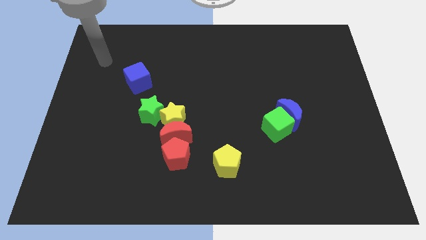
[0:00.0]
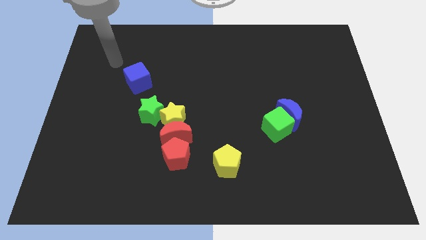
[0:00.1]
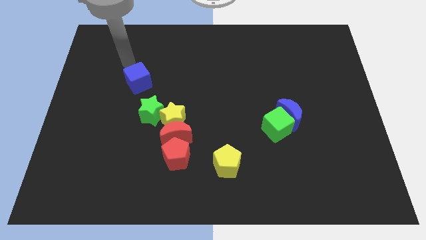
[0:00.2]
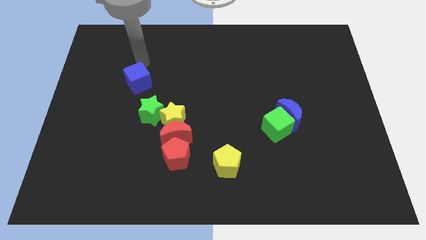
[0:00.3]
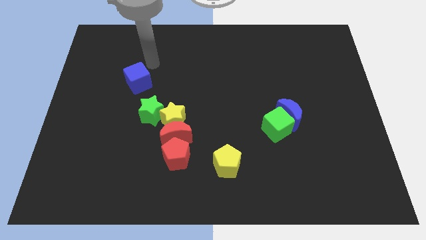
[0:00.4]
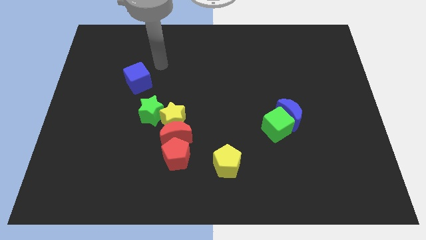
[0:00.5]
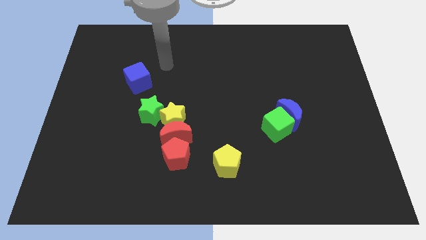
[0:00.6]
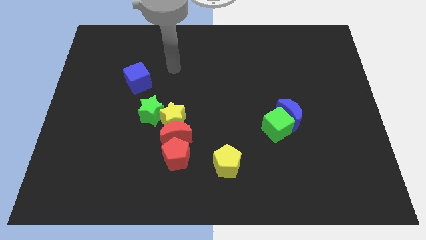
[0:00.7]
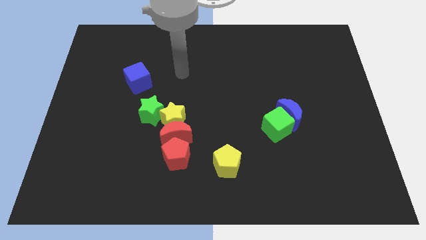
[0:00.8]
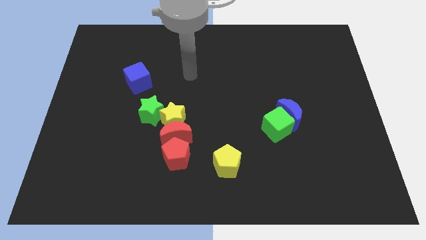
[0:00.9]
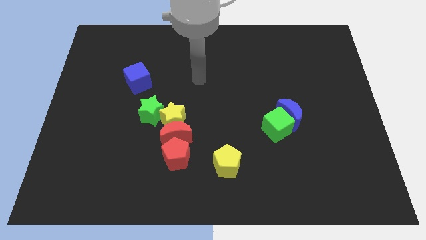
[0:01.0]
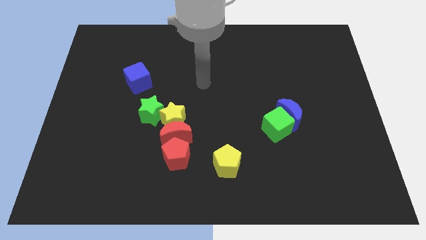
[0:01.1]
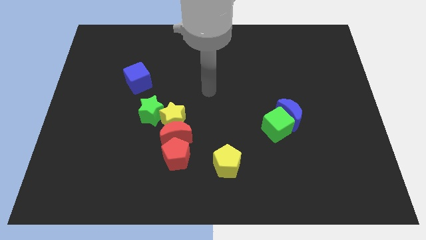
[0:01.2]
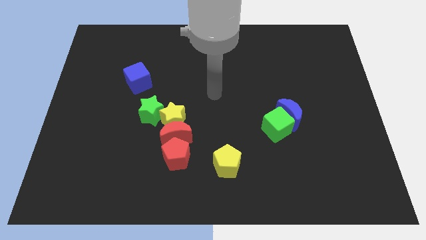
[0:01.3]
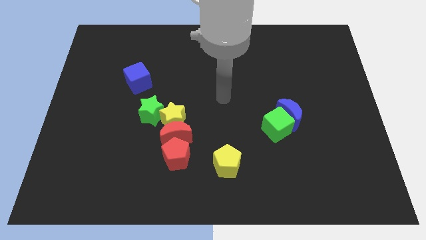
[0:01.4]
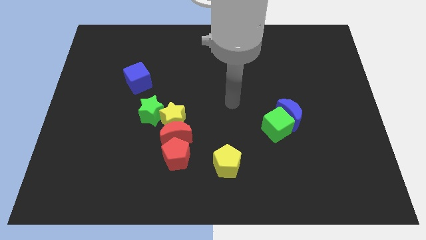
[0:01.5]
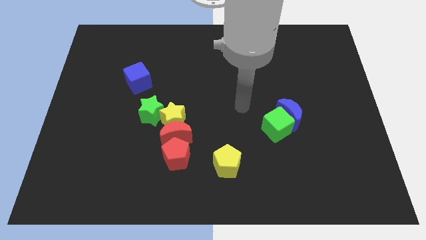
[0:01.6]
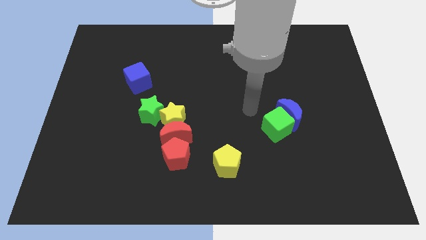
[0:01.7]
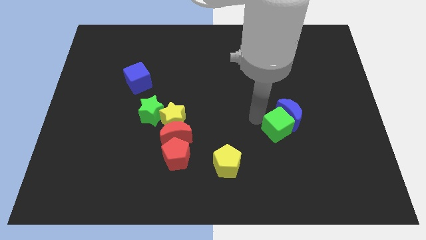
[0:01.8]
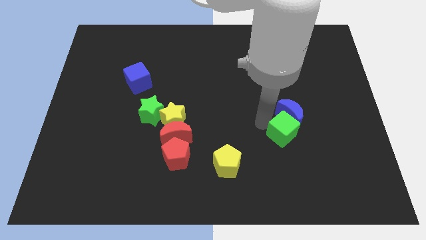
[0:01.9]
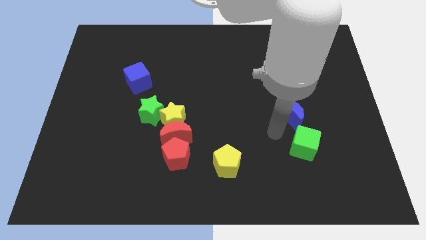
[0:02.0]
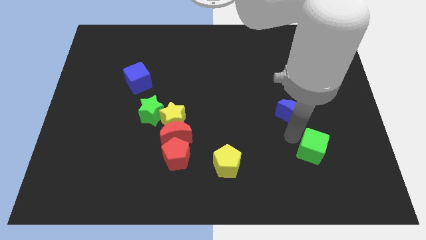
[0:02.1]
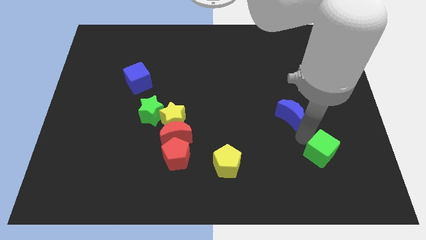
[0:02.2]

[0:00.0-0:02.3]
pull the blue moon apart from the green cube

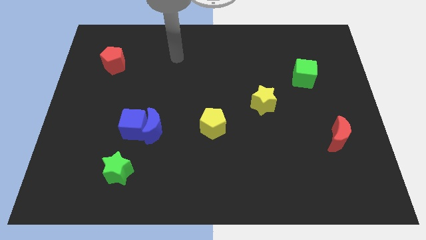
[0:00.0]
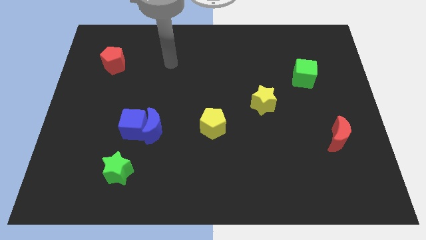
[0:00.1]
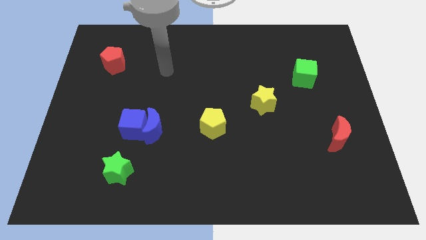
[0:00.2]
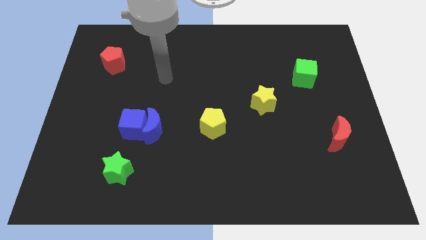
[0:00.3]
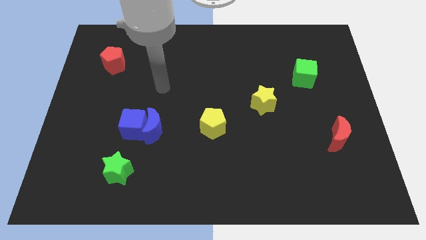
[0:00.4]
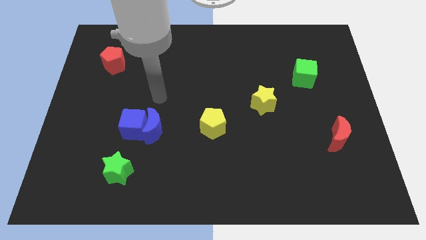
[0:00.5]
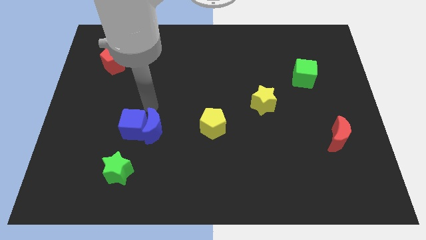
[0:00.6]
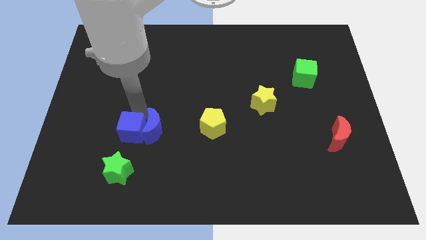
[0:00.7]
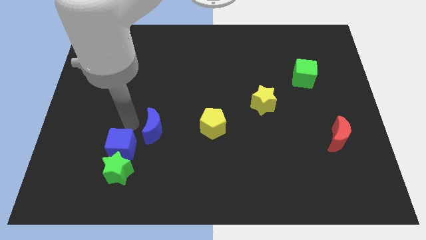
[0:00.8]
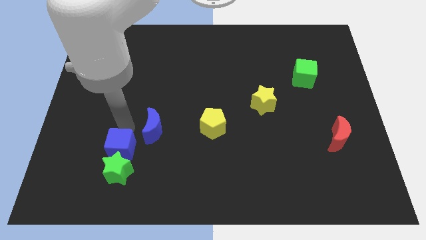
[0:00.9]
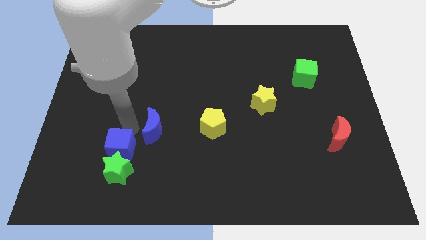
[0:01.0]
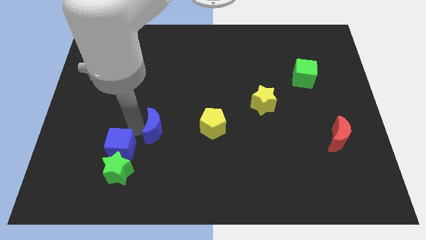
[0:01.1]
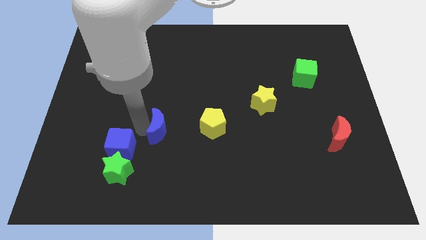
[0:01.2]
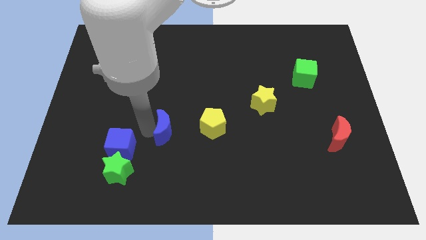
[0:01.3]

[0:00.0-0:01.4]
move the blue moon away from the blue cube

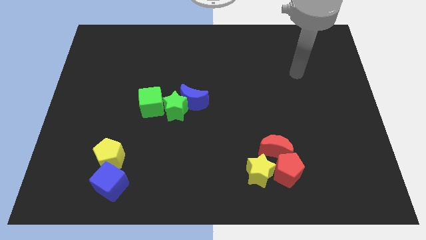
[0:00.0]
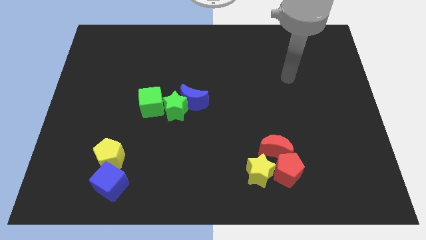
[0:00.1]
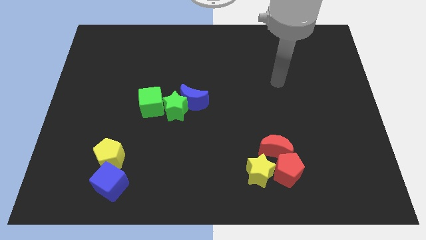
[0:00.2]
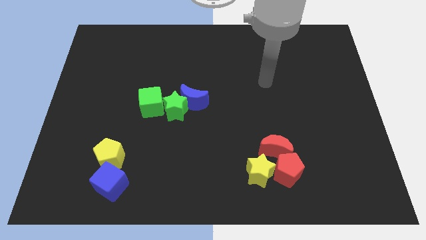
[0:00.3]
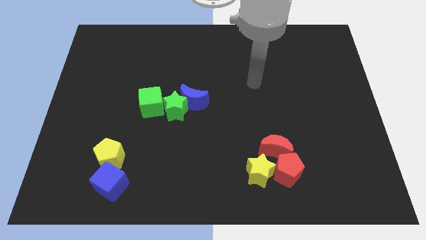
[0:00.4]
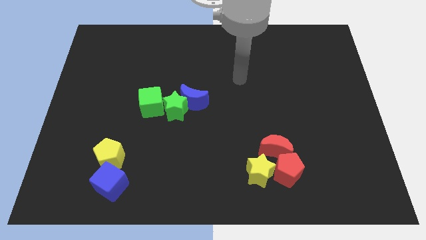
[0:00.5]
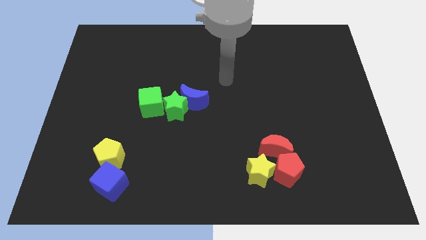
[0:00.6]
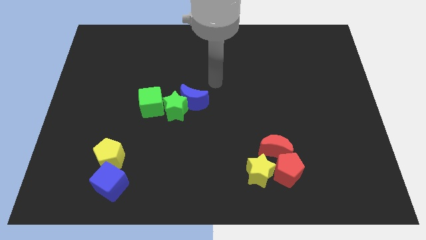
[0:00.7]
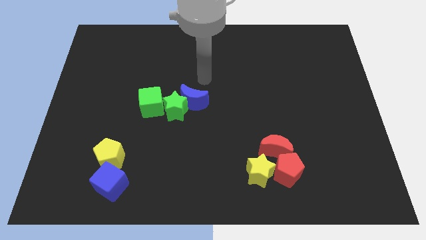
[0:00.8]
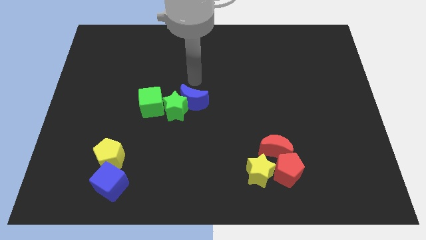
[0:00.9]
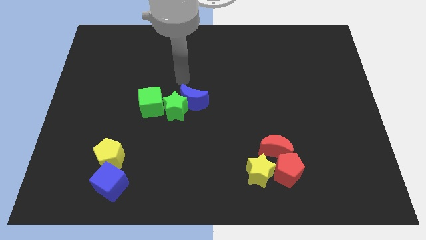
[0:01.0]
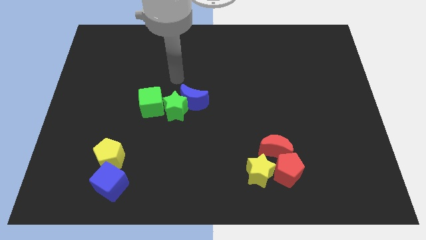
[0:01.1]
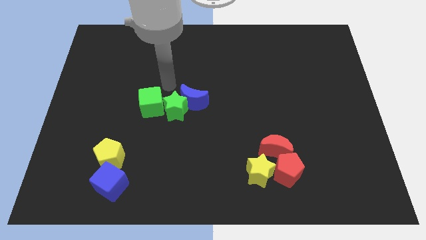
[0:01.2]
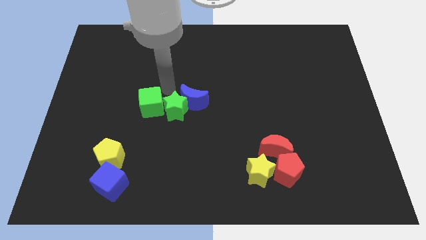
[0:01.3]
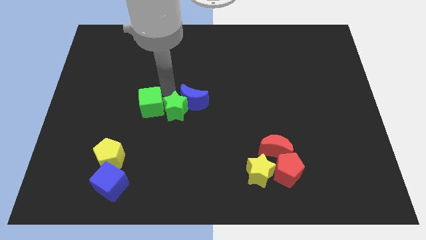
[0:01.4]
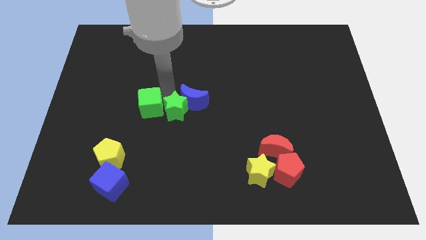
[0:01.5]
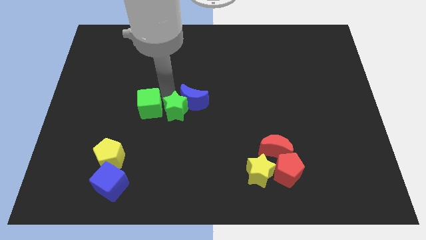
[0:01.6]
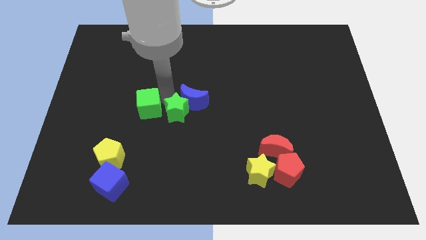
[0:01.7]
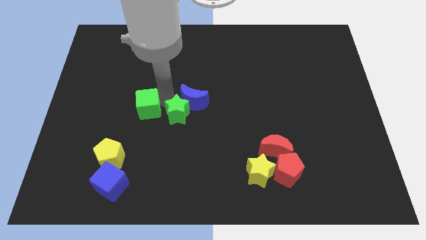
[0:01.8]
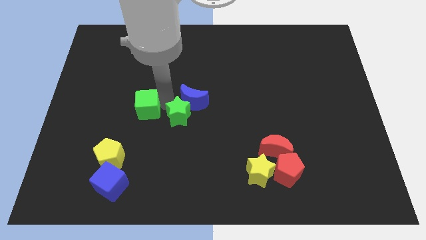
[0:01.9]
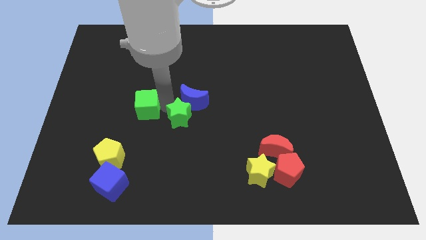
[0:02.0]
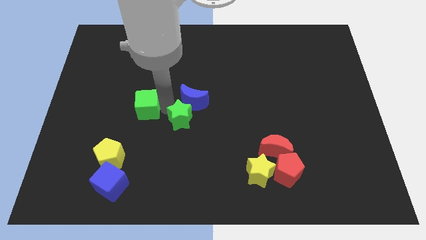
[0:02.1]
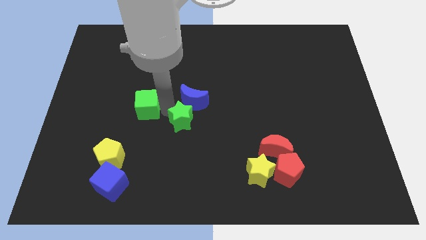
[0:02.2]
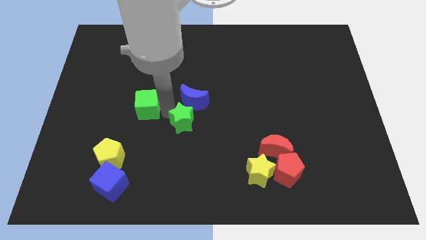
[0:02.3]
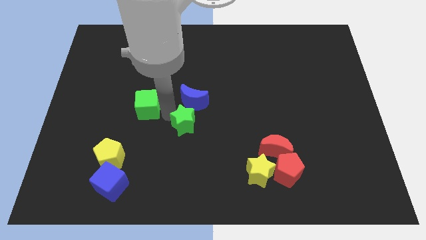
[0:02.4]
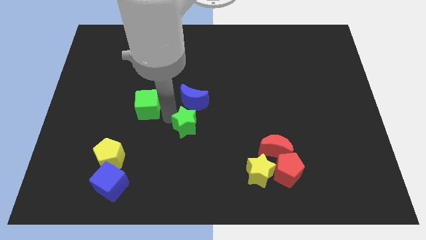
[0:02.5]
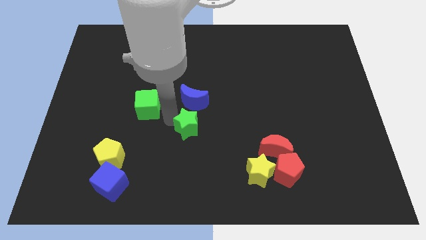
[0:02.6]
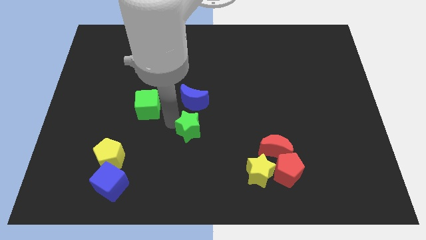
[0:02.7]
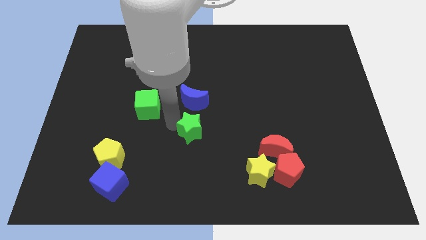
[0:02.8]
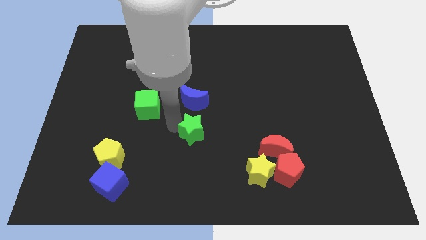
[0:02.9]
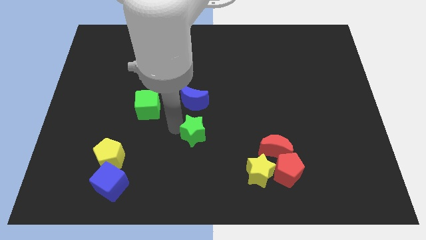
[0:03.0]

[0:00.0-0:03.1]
pull the green star apart from the blue moon and green cube

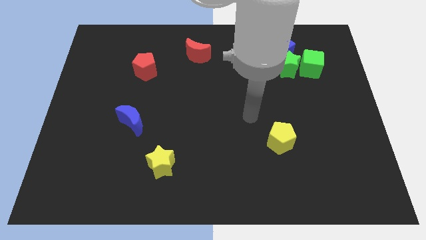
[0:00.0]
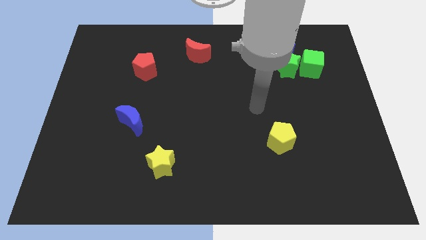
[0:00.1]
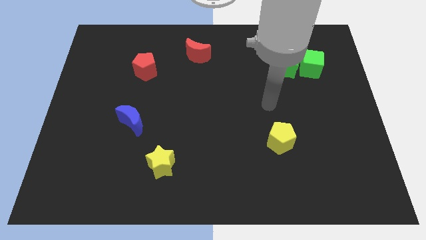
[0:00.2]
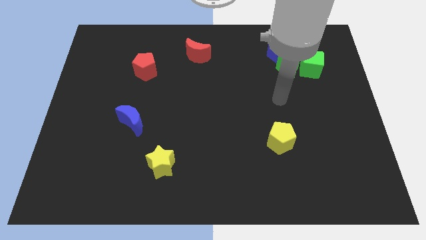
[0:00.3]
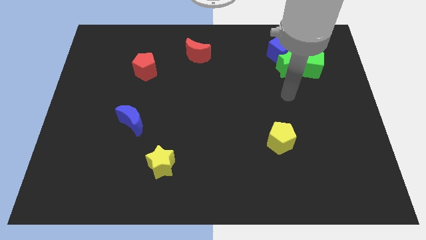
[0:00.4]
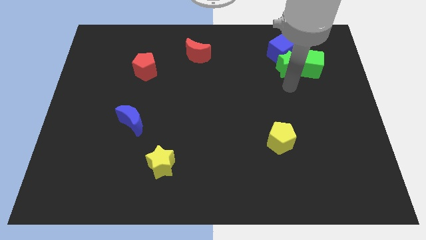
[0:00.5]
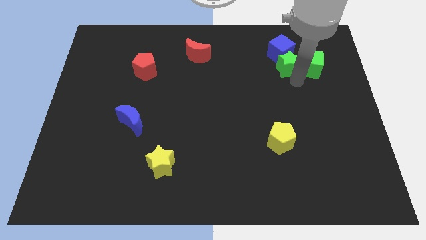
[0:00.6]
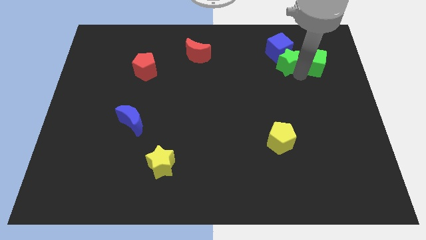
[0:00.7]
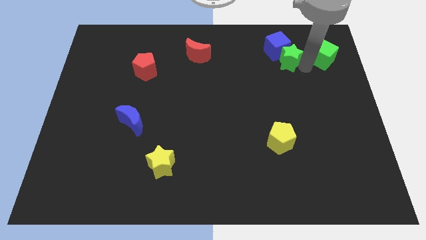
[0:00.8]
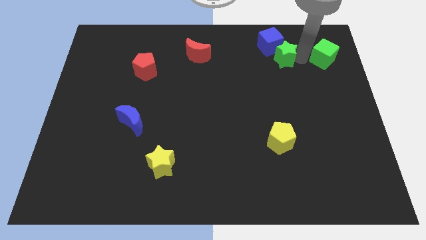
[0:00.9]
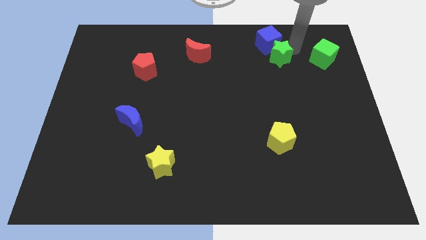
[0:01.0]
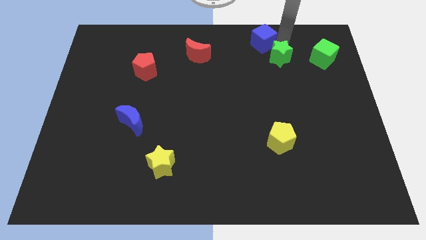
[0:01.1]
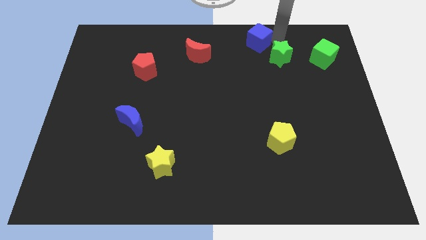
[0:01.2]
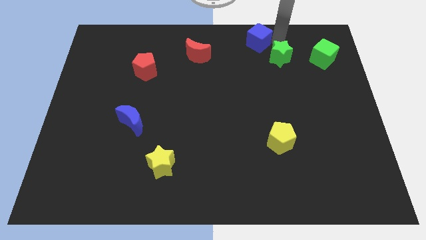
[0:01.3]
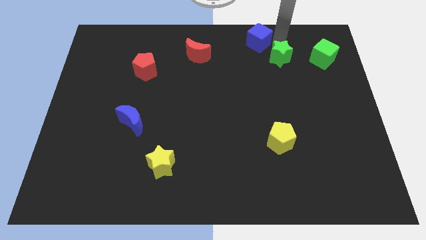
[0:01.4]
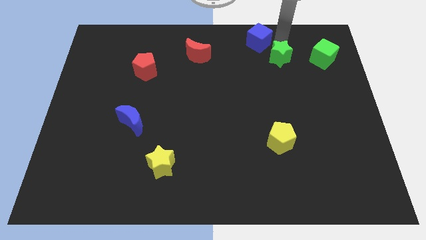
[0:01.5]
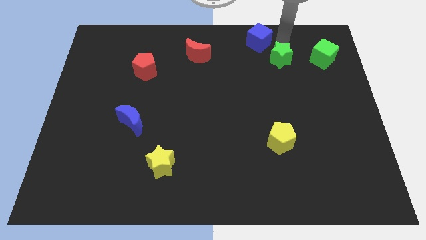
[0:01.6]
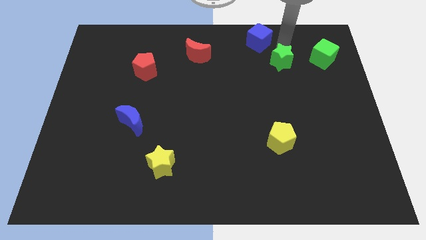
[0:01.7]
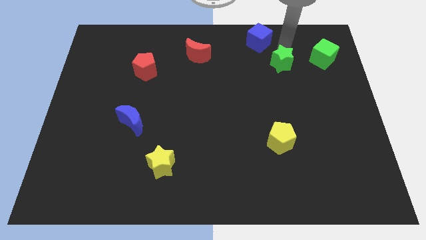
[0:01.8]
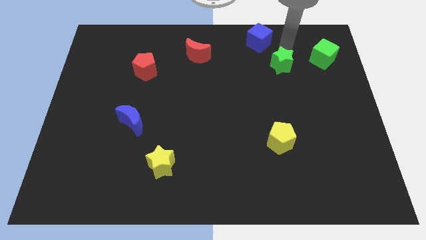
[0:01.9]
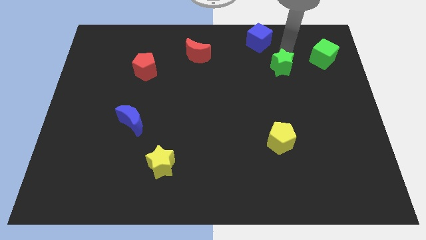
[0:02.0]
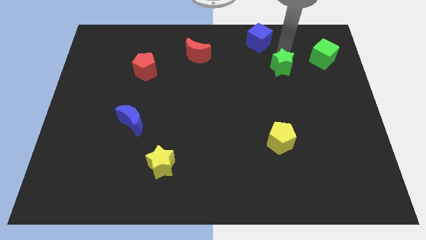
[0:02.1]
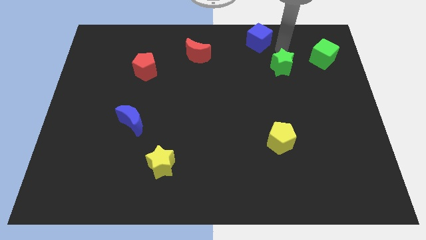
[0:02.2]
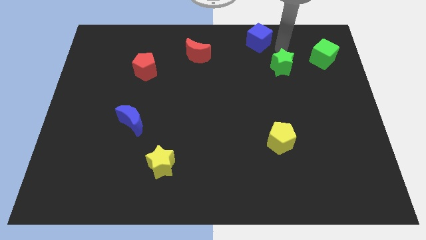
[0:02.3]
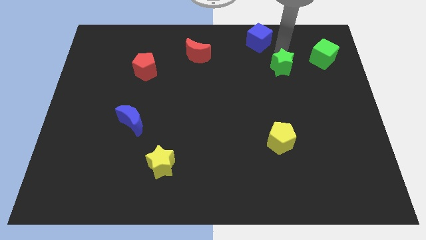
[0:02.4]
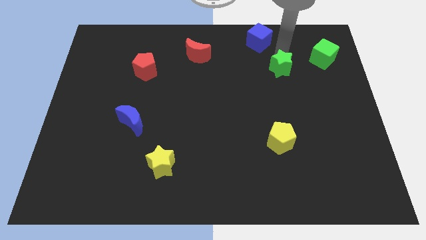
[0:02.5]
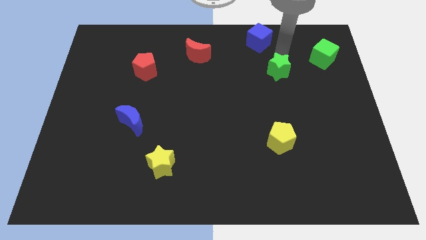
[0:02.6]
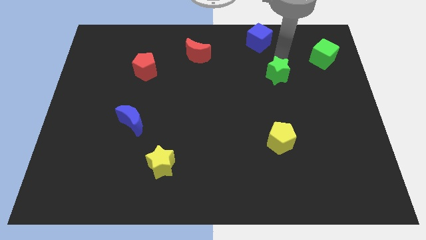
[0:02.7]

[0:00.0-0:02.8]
pull the green star apart from the blue cube and green cube
